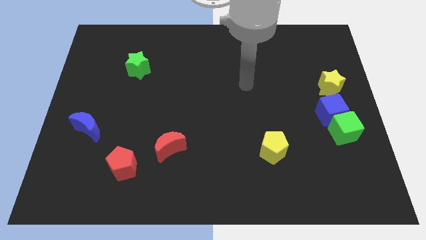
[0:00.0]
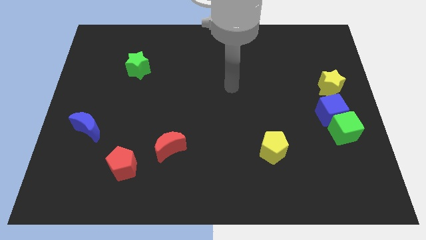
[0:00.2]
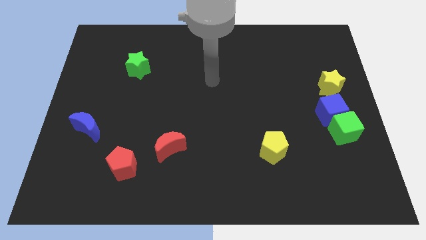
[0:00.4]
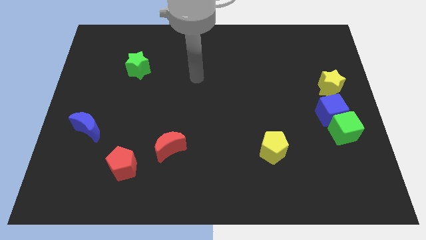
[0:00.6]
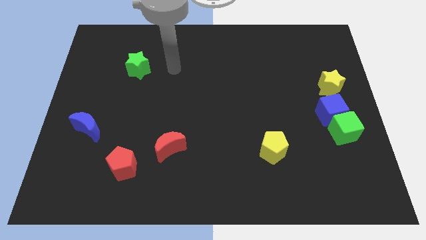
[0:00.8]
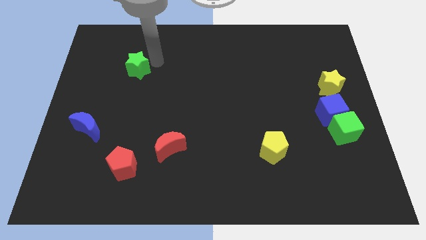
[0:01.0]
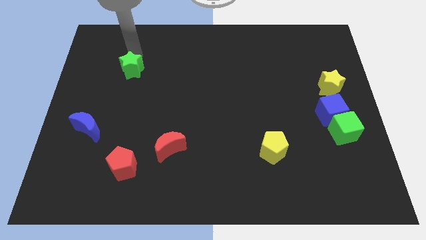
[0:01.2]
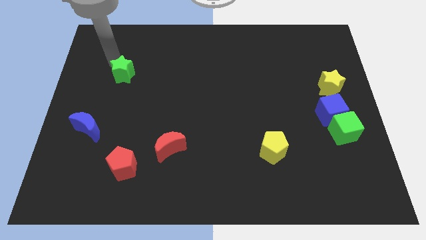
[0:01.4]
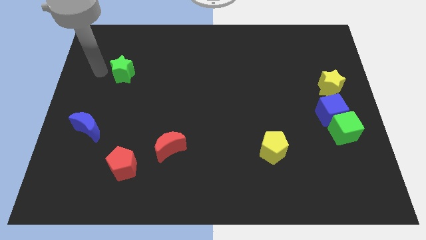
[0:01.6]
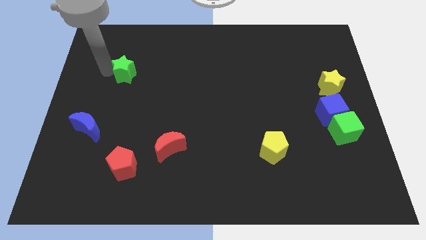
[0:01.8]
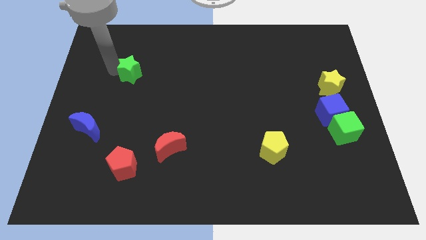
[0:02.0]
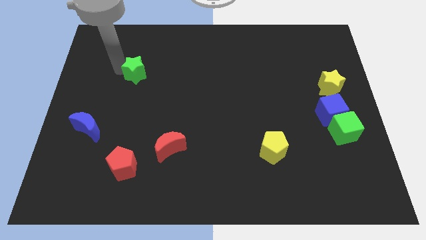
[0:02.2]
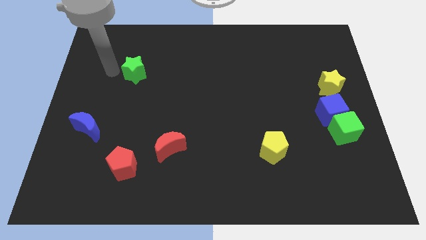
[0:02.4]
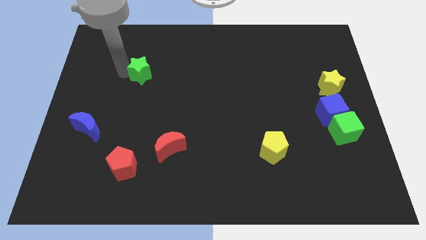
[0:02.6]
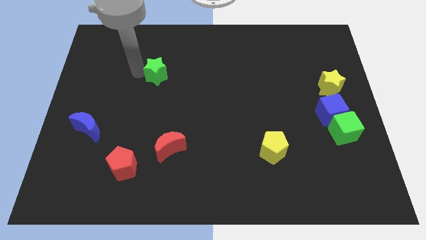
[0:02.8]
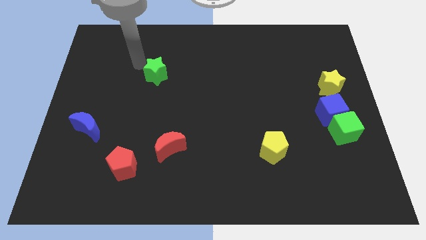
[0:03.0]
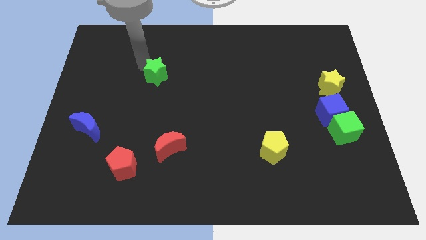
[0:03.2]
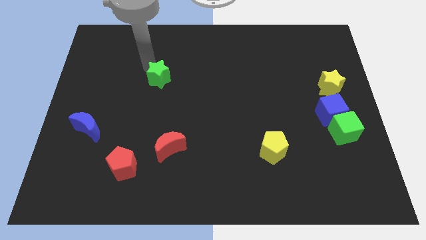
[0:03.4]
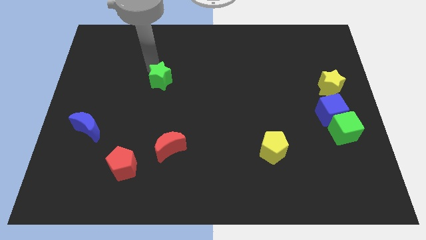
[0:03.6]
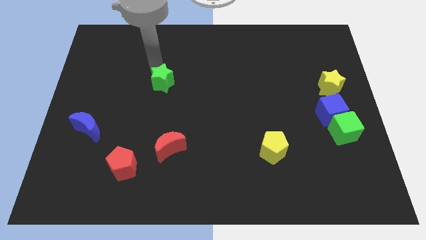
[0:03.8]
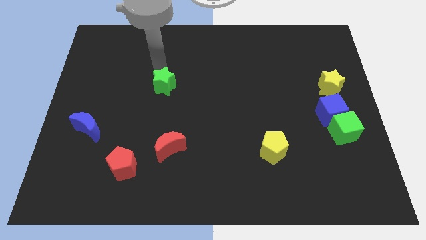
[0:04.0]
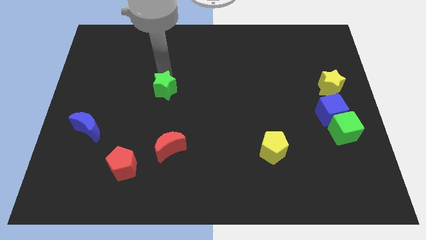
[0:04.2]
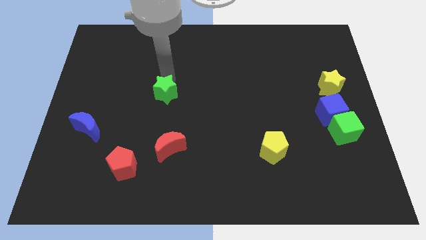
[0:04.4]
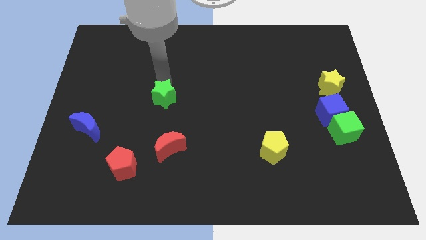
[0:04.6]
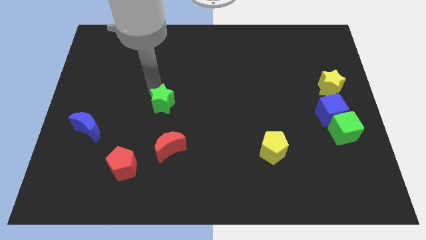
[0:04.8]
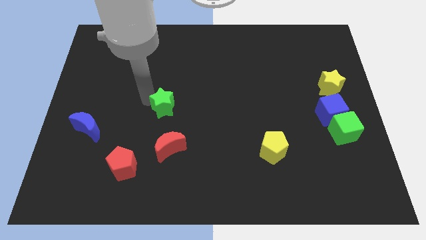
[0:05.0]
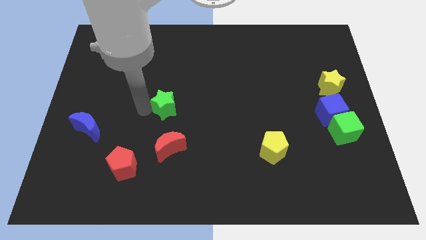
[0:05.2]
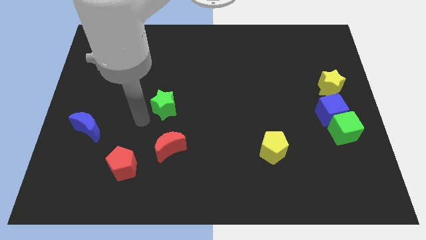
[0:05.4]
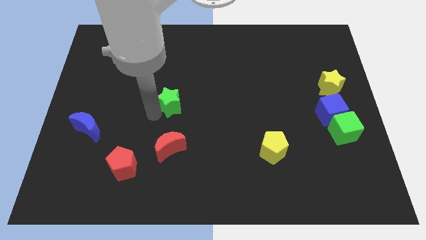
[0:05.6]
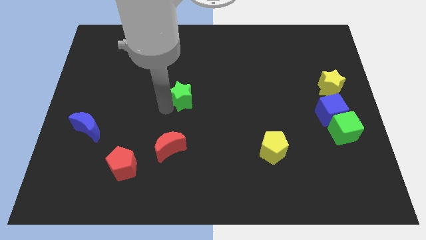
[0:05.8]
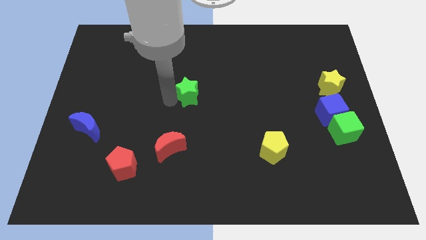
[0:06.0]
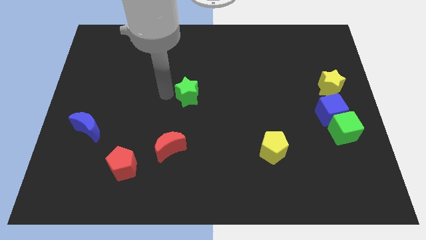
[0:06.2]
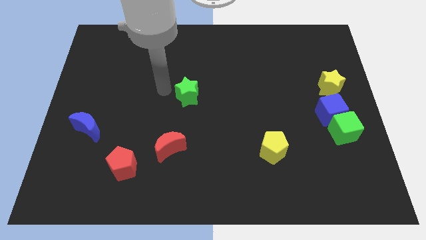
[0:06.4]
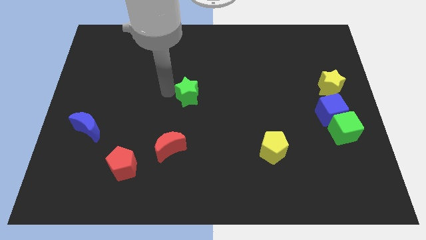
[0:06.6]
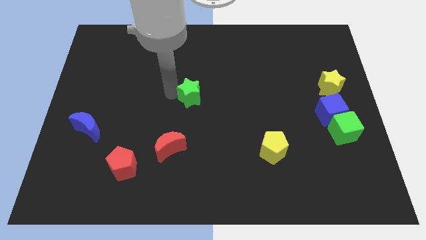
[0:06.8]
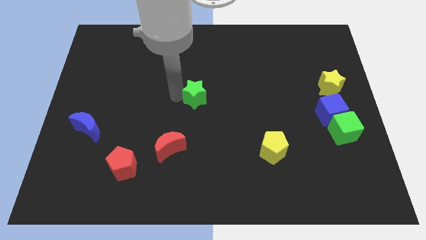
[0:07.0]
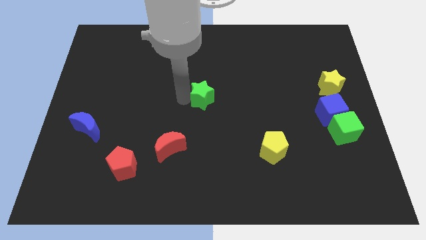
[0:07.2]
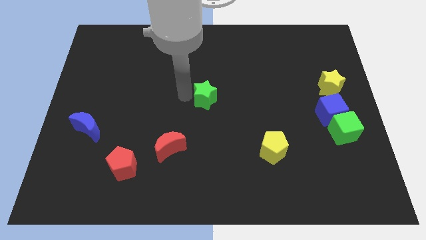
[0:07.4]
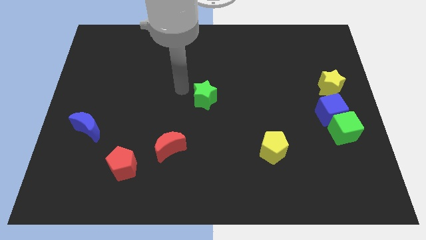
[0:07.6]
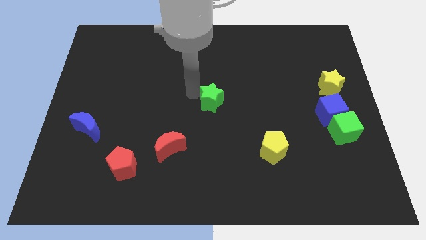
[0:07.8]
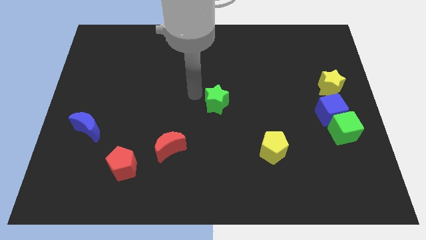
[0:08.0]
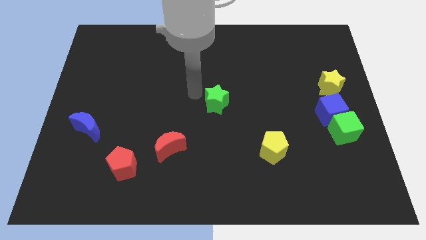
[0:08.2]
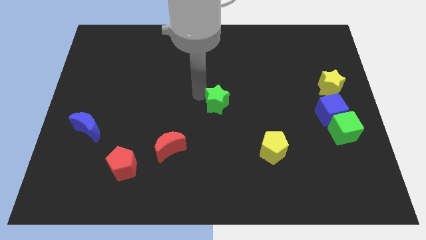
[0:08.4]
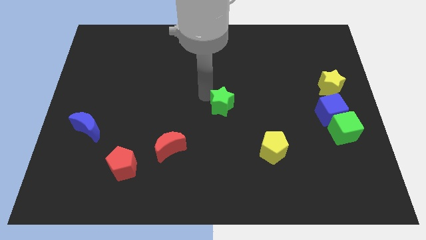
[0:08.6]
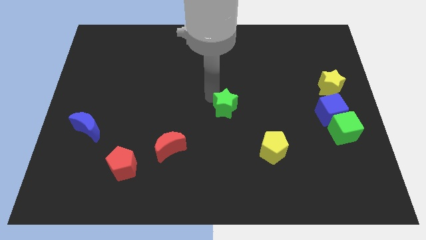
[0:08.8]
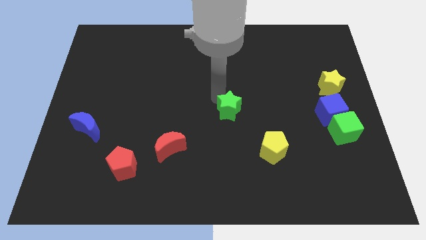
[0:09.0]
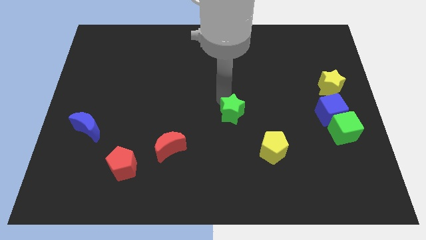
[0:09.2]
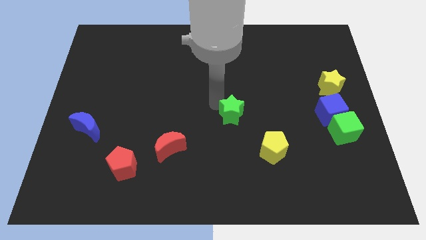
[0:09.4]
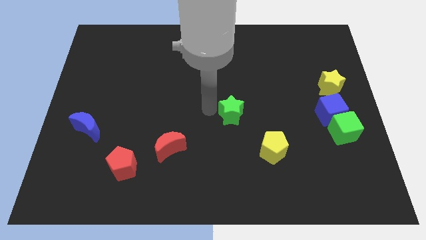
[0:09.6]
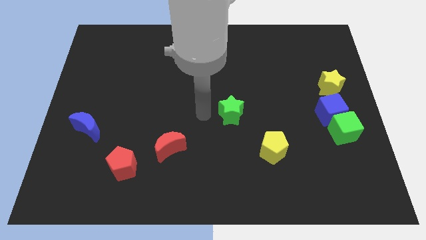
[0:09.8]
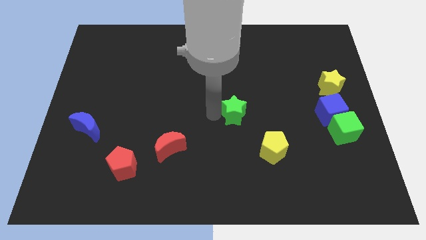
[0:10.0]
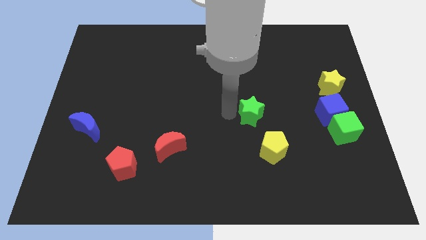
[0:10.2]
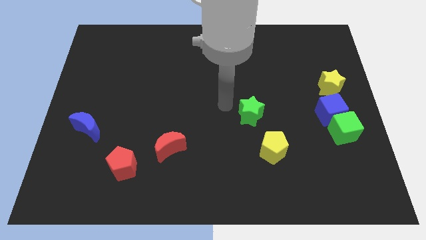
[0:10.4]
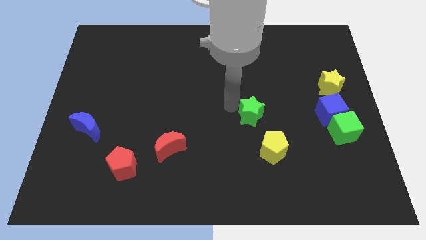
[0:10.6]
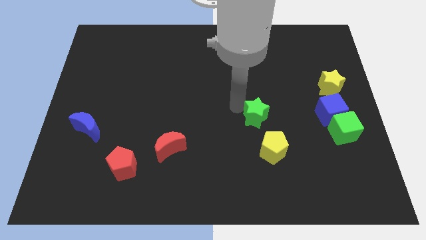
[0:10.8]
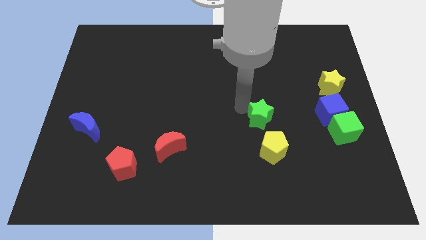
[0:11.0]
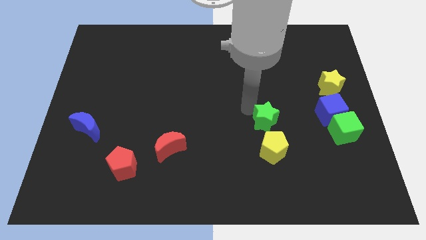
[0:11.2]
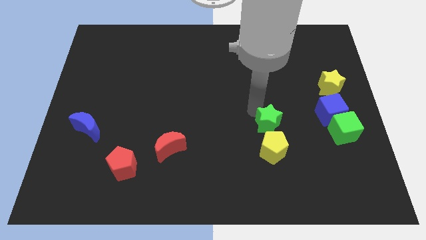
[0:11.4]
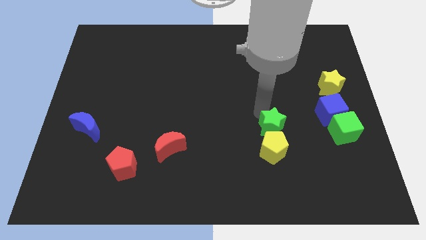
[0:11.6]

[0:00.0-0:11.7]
push the green star to the left side of the green cube

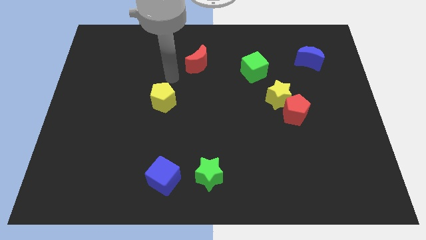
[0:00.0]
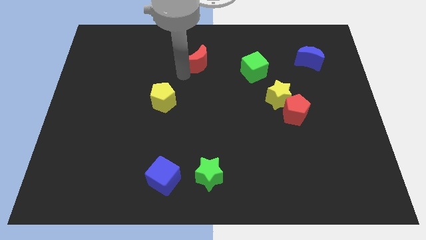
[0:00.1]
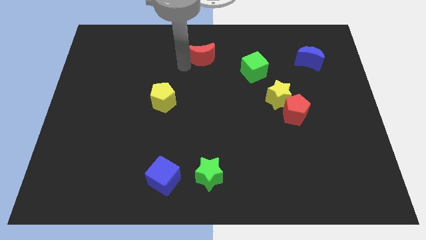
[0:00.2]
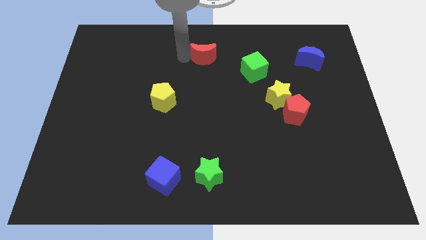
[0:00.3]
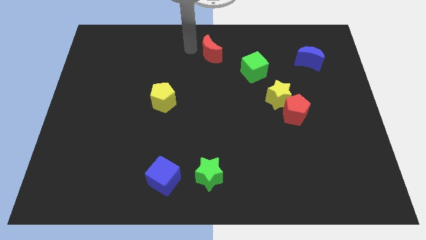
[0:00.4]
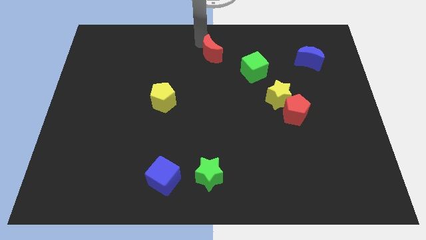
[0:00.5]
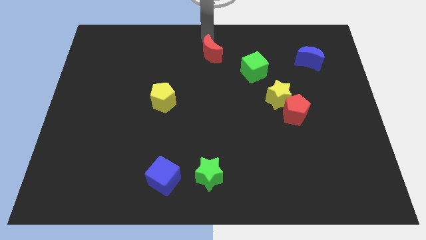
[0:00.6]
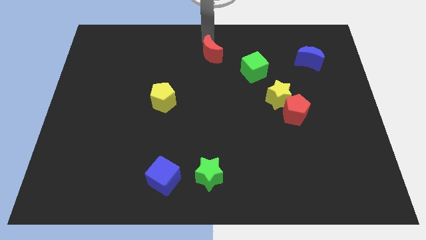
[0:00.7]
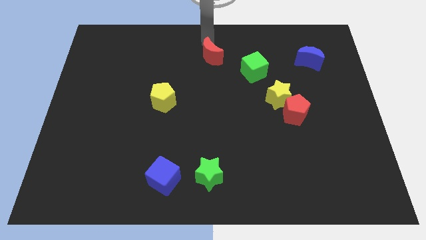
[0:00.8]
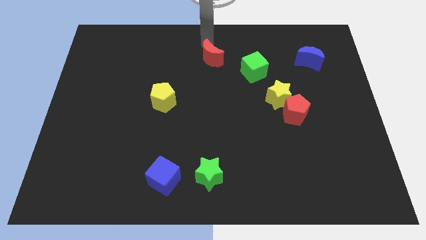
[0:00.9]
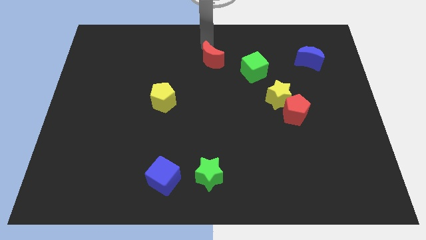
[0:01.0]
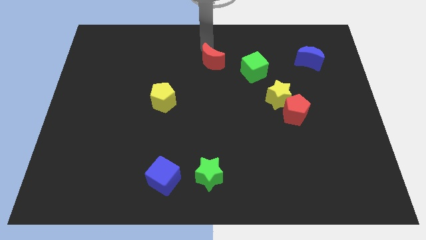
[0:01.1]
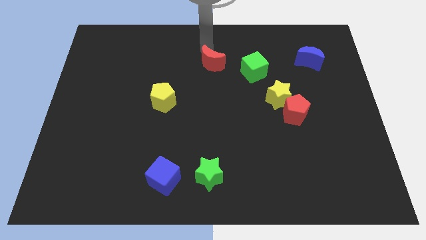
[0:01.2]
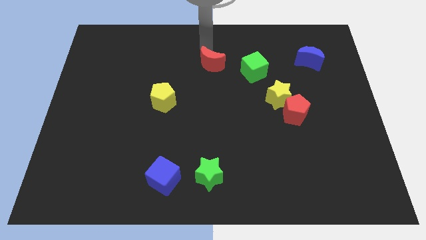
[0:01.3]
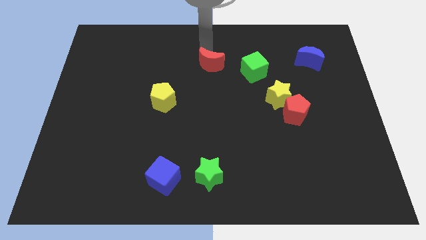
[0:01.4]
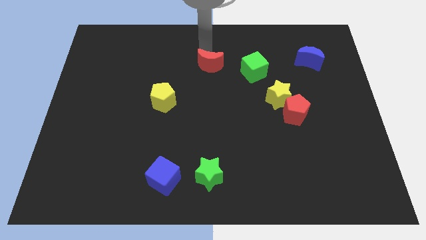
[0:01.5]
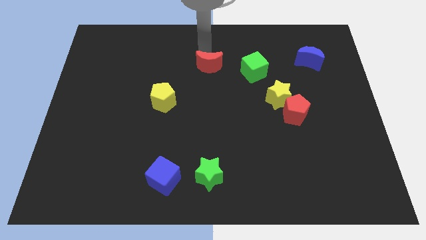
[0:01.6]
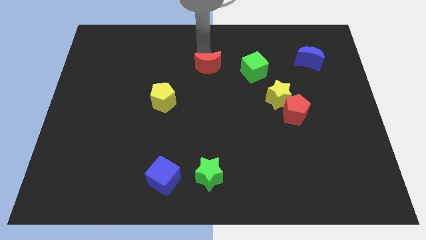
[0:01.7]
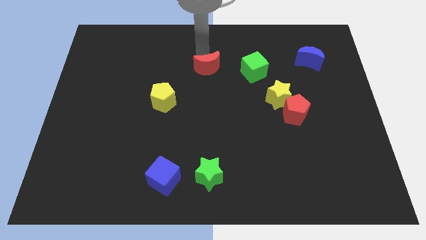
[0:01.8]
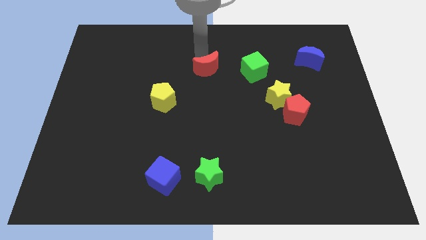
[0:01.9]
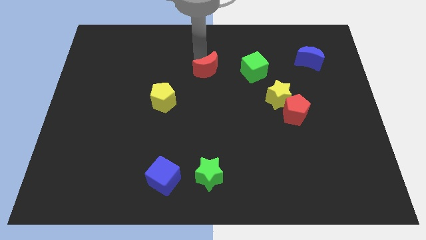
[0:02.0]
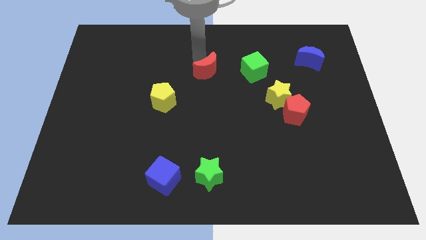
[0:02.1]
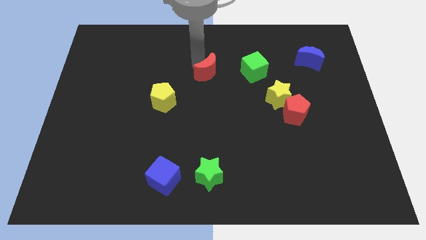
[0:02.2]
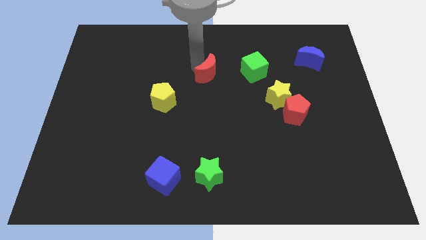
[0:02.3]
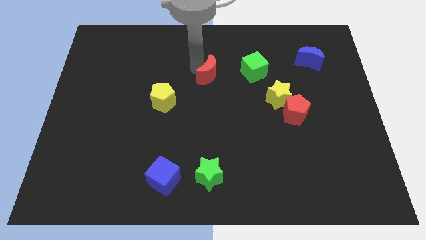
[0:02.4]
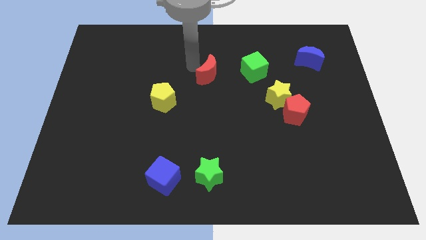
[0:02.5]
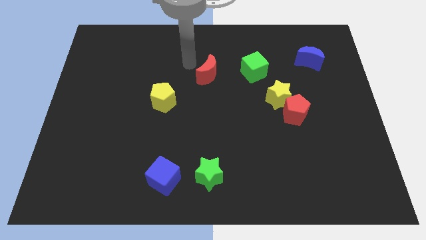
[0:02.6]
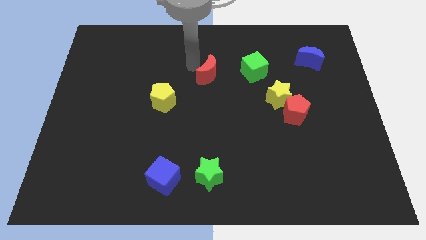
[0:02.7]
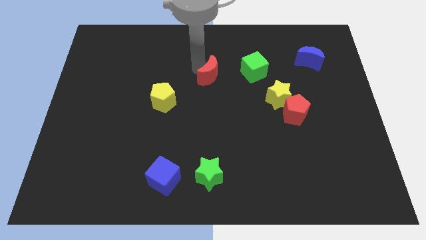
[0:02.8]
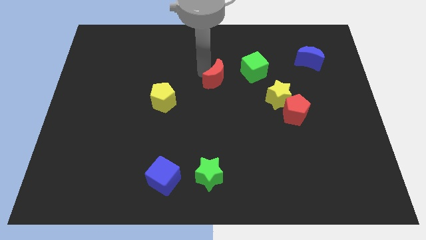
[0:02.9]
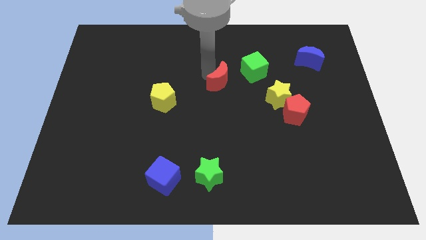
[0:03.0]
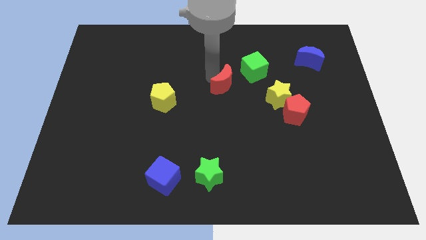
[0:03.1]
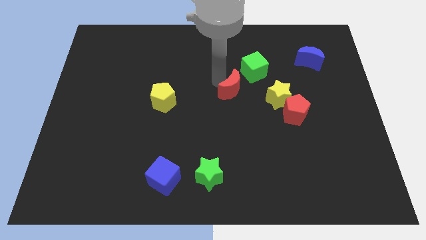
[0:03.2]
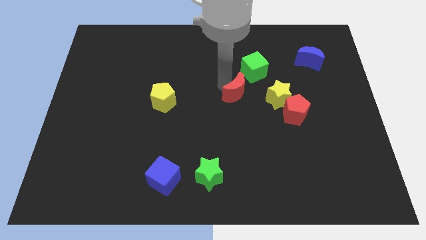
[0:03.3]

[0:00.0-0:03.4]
slide the red moon below the green cube
